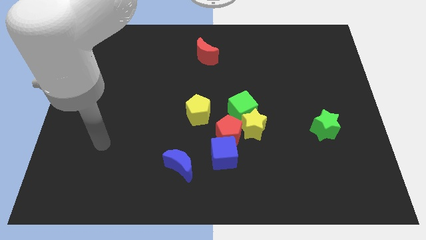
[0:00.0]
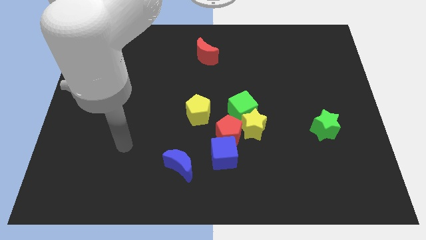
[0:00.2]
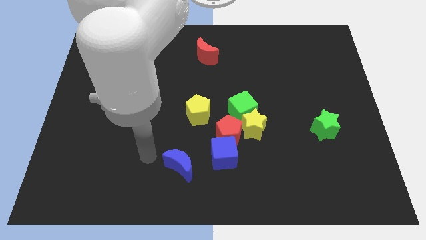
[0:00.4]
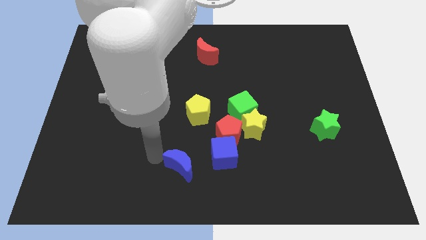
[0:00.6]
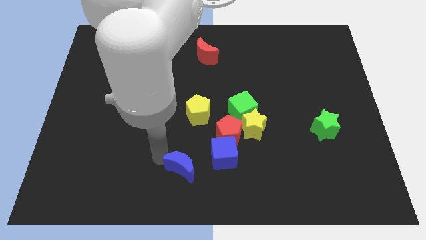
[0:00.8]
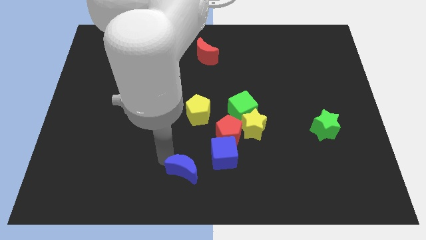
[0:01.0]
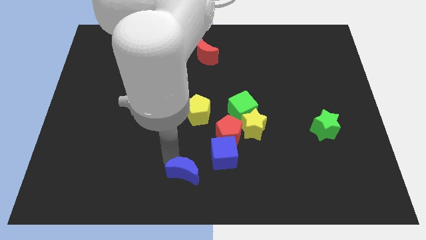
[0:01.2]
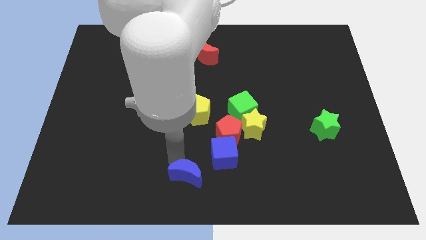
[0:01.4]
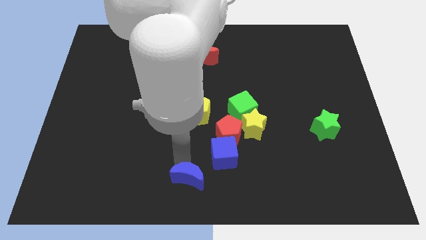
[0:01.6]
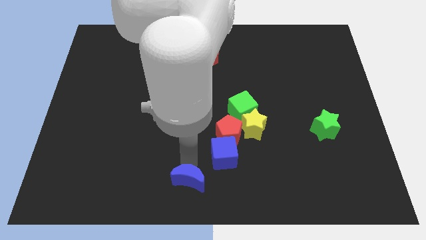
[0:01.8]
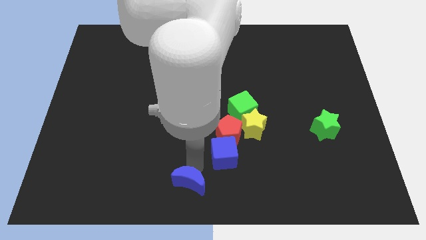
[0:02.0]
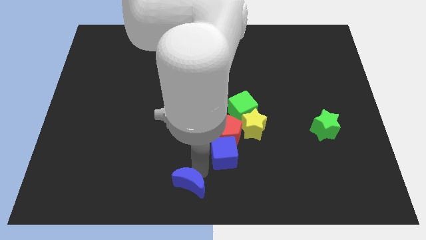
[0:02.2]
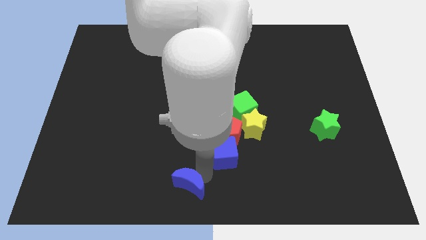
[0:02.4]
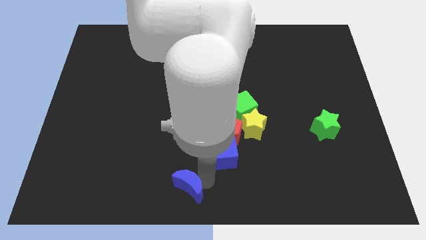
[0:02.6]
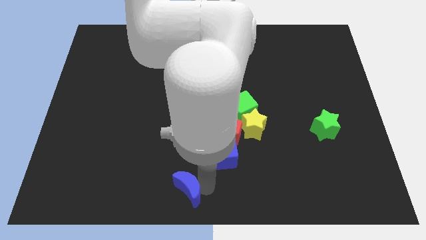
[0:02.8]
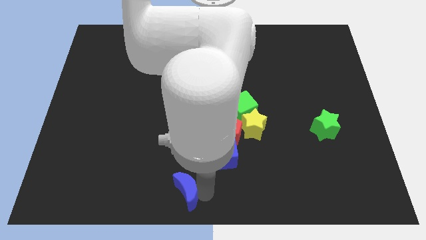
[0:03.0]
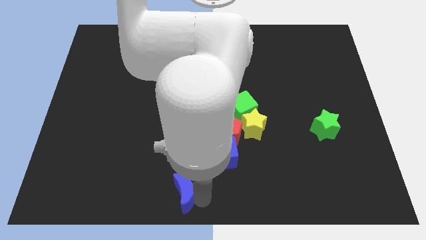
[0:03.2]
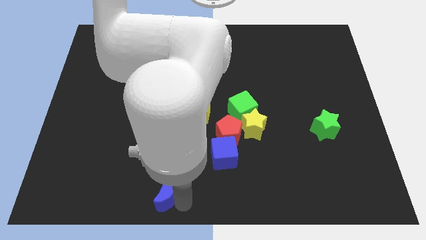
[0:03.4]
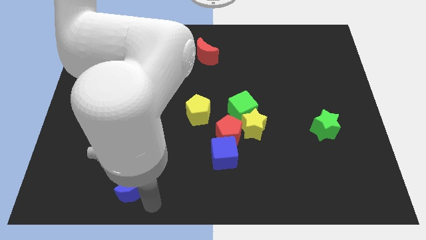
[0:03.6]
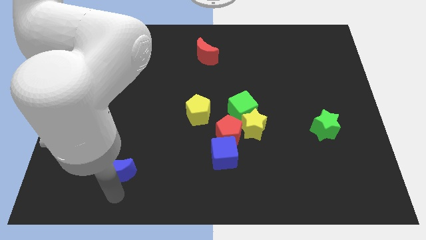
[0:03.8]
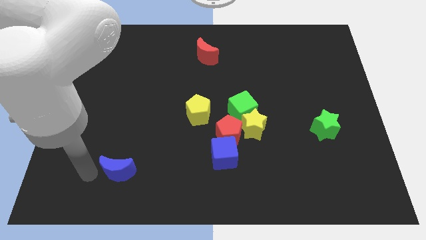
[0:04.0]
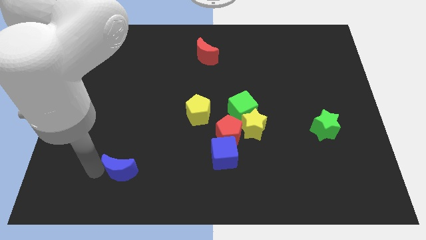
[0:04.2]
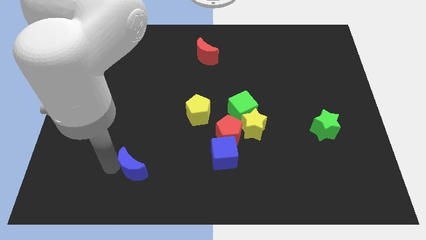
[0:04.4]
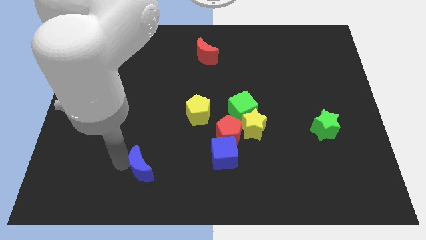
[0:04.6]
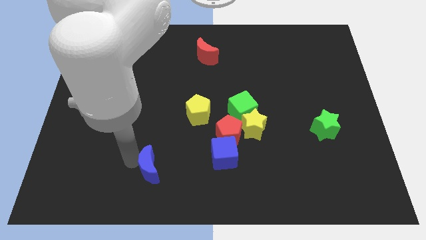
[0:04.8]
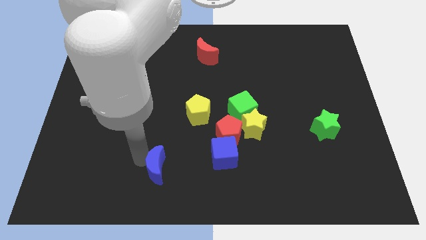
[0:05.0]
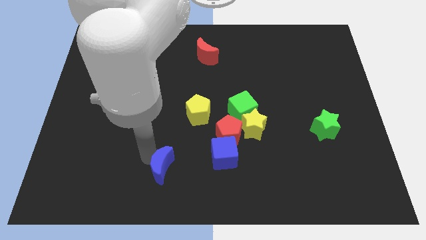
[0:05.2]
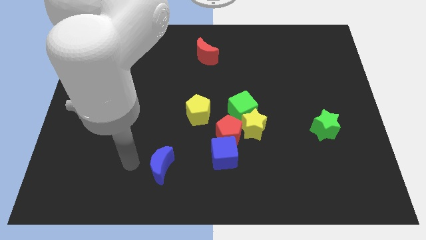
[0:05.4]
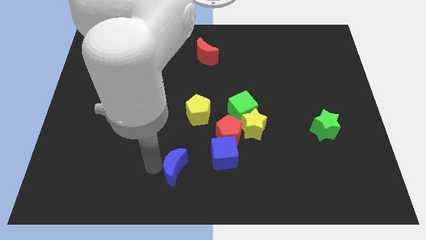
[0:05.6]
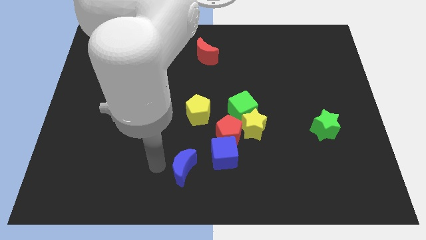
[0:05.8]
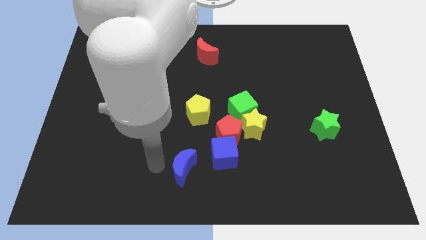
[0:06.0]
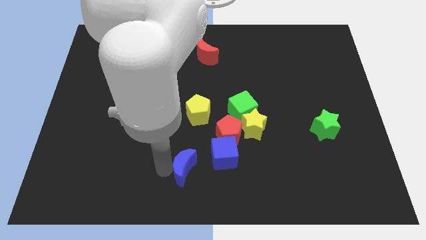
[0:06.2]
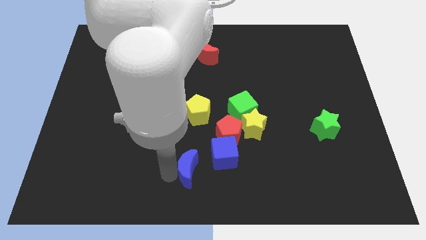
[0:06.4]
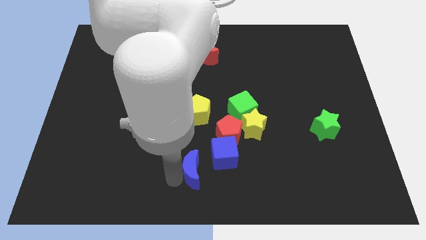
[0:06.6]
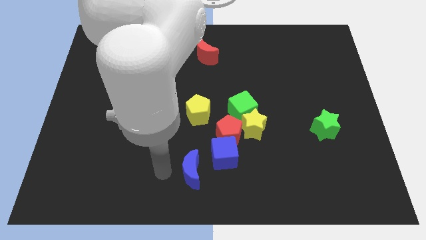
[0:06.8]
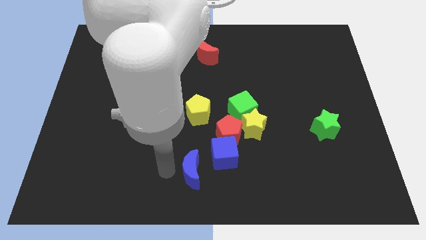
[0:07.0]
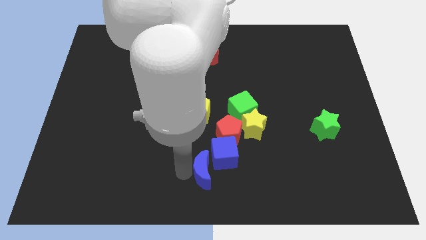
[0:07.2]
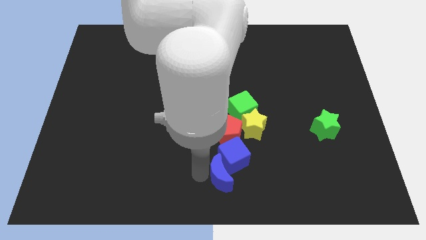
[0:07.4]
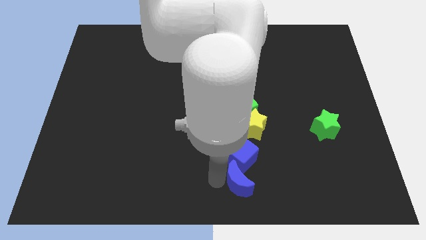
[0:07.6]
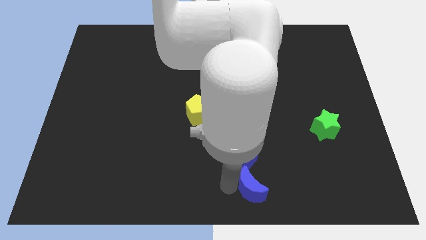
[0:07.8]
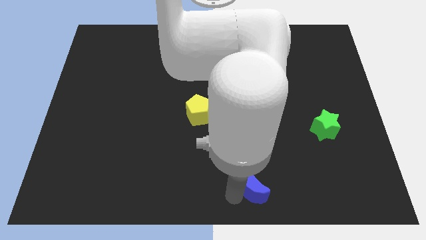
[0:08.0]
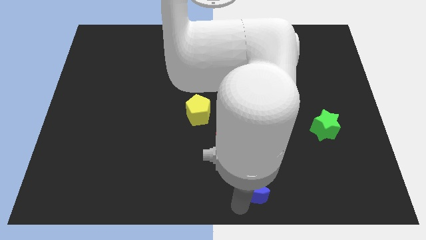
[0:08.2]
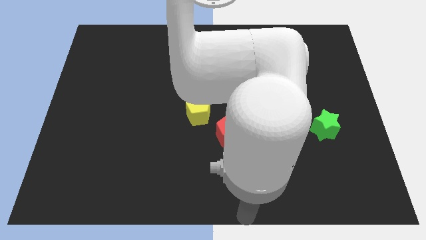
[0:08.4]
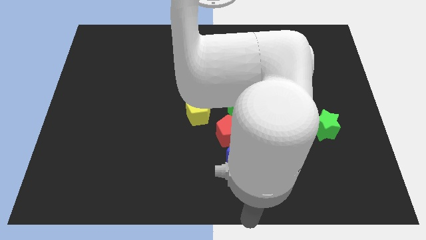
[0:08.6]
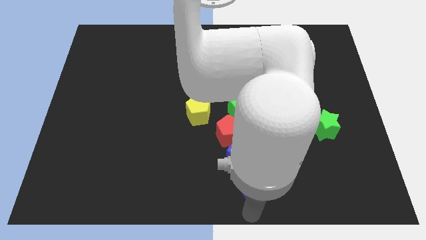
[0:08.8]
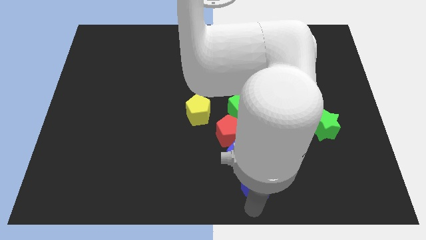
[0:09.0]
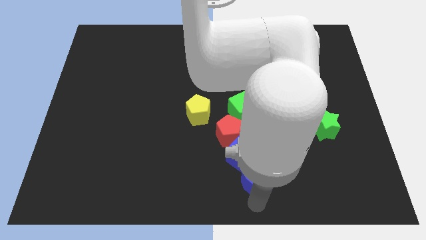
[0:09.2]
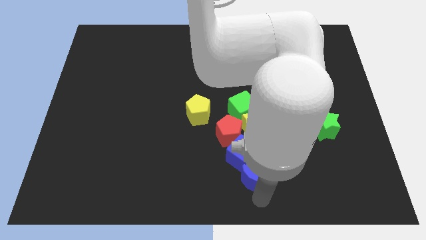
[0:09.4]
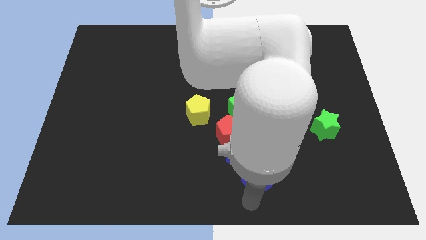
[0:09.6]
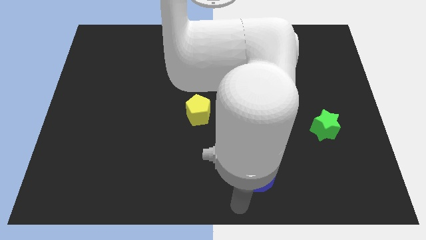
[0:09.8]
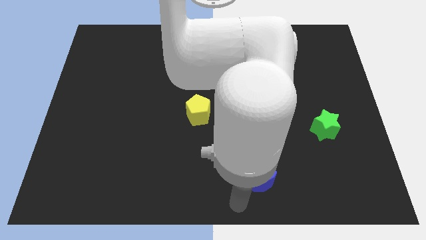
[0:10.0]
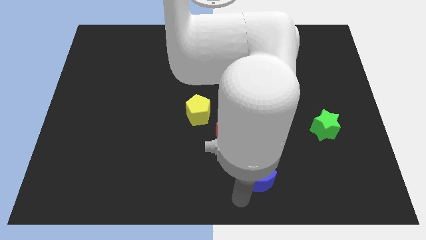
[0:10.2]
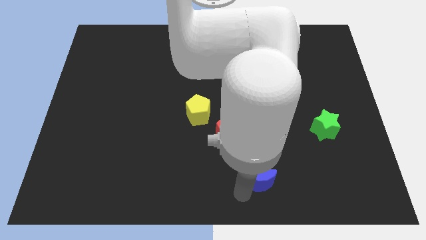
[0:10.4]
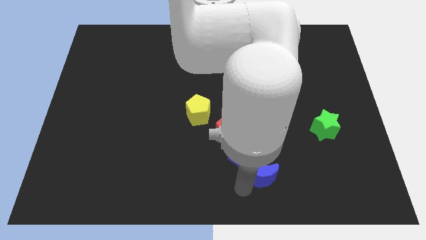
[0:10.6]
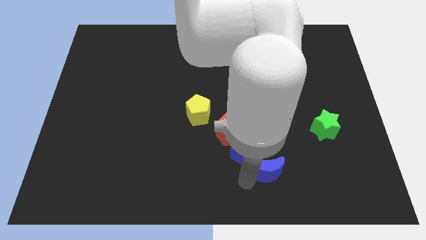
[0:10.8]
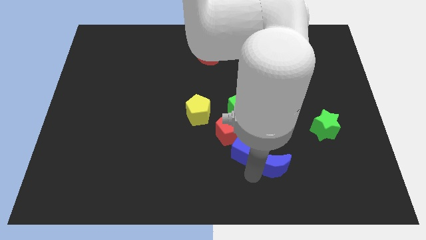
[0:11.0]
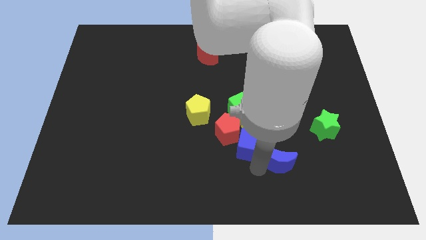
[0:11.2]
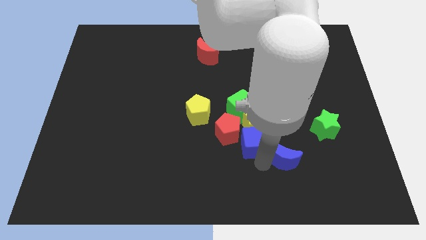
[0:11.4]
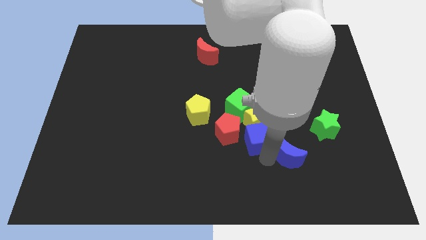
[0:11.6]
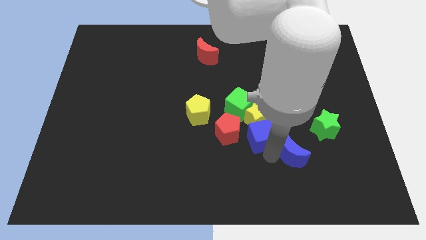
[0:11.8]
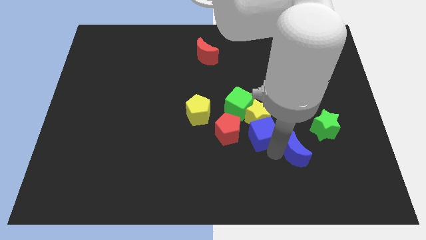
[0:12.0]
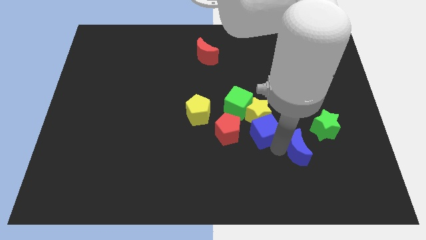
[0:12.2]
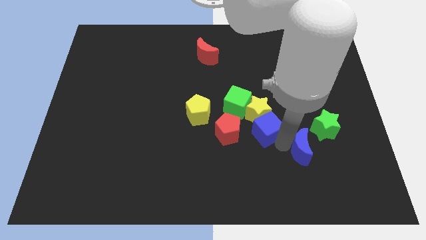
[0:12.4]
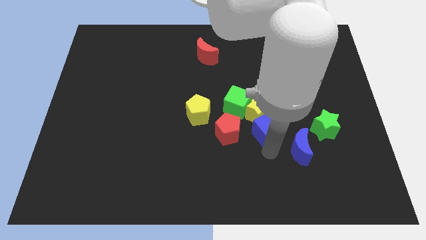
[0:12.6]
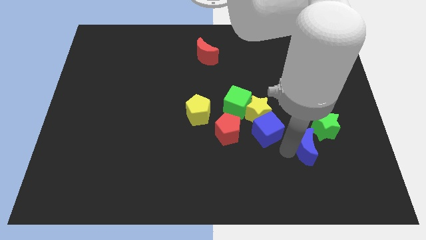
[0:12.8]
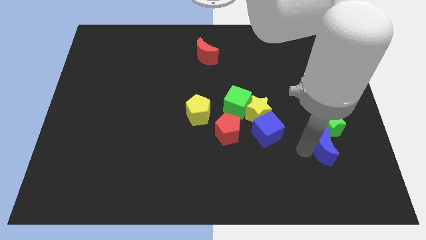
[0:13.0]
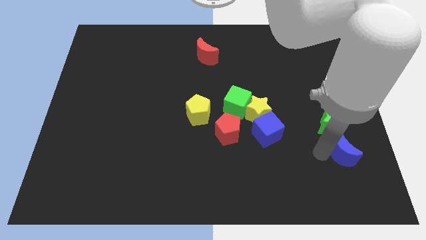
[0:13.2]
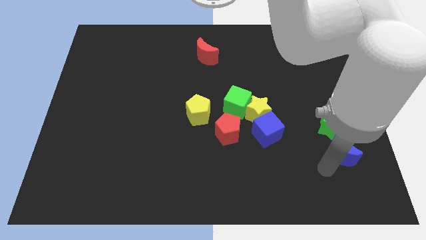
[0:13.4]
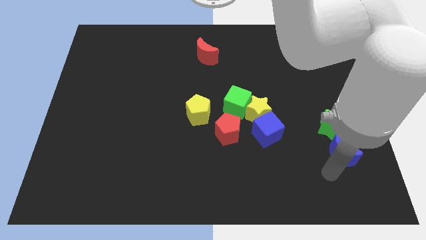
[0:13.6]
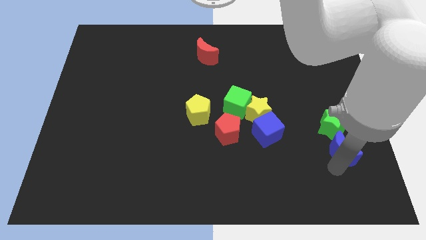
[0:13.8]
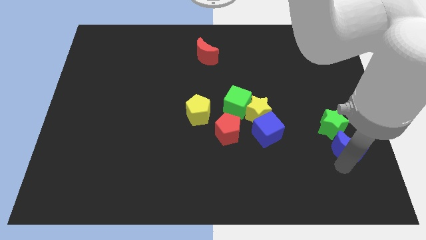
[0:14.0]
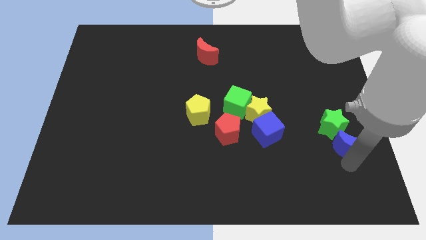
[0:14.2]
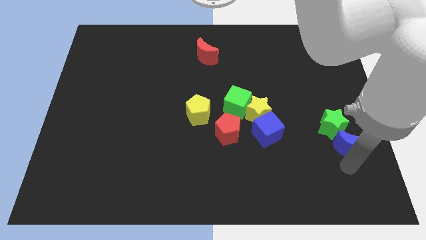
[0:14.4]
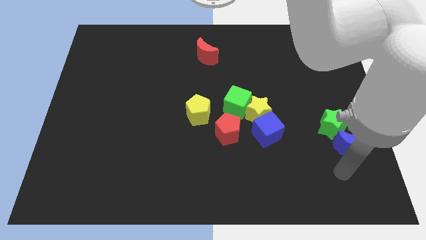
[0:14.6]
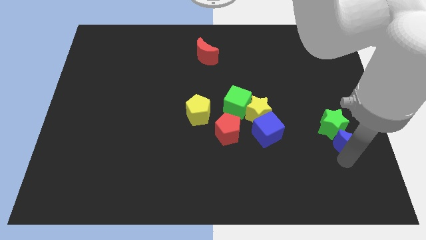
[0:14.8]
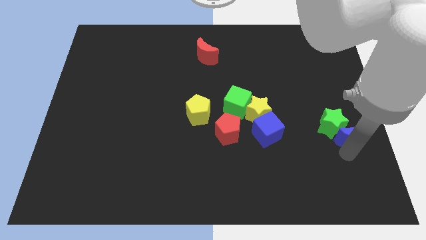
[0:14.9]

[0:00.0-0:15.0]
put the blue moon to the right side
